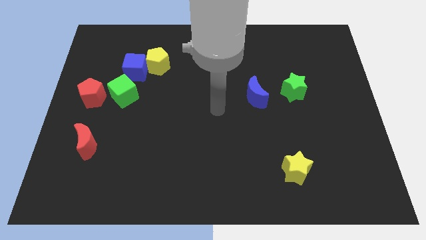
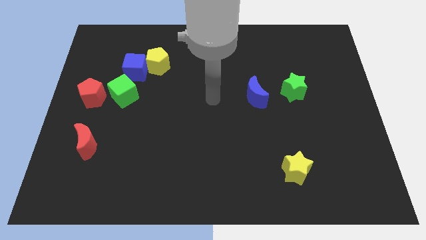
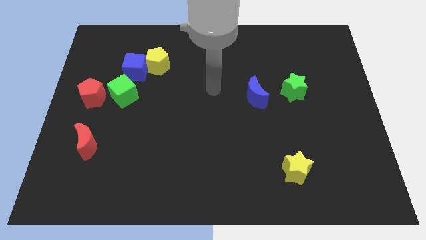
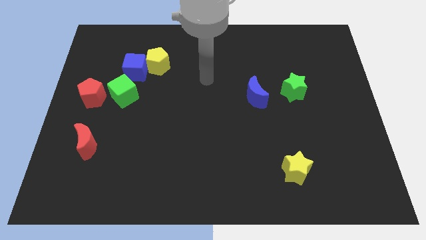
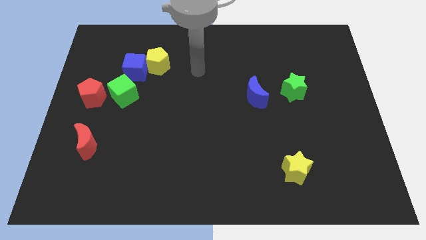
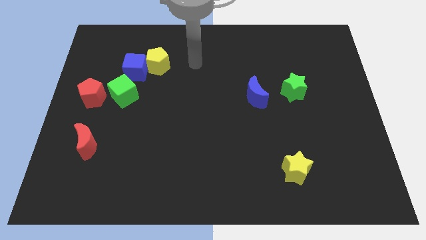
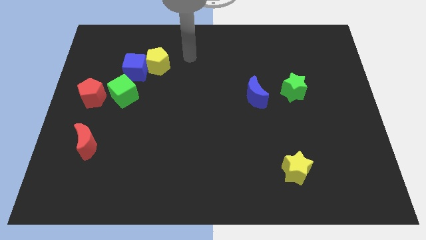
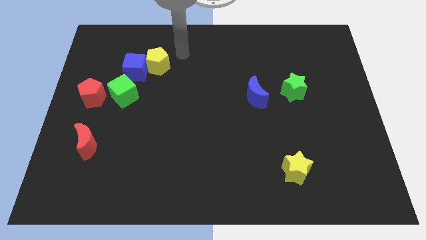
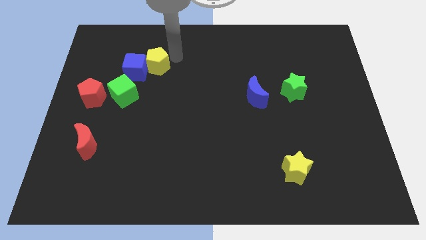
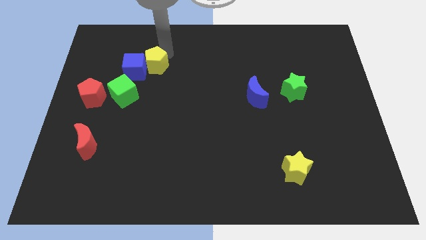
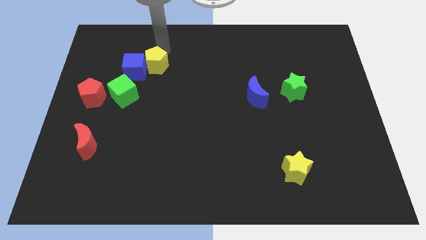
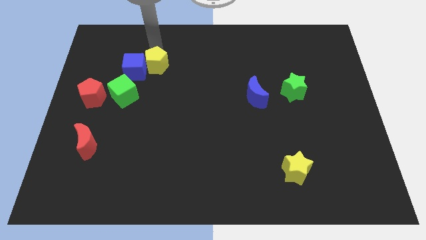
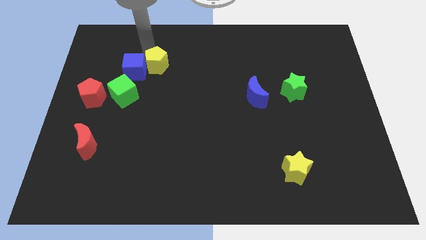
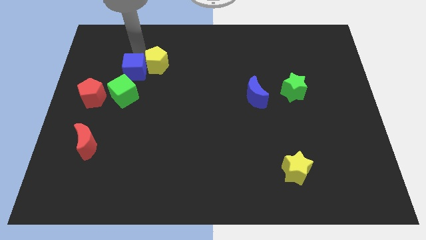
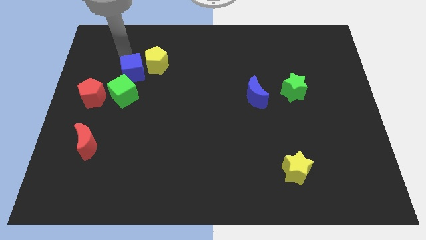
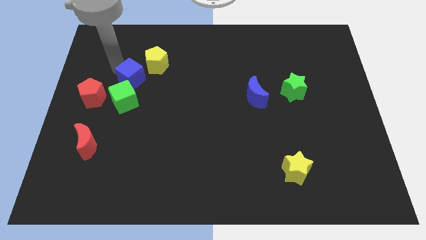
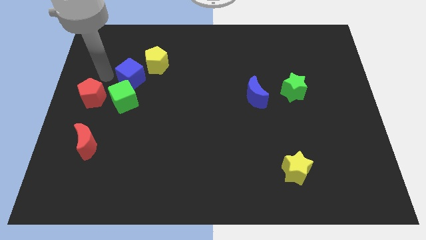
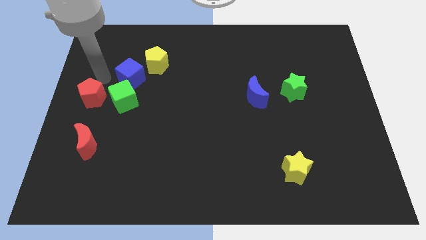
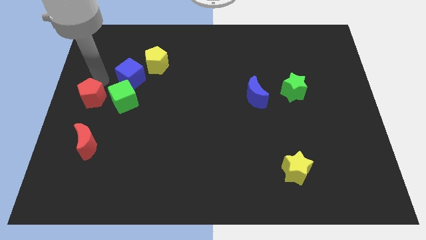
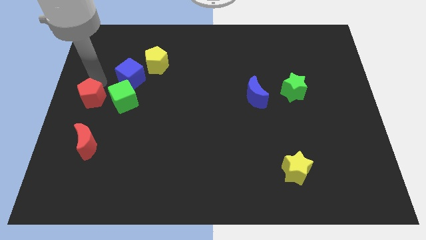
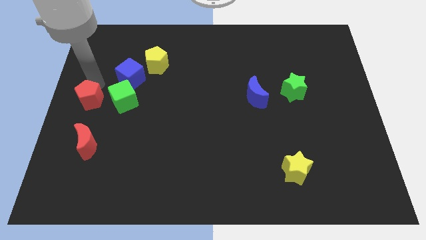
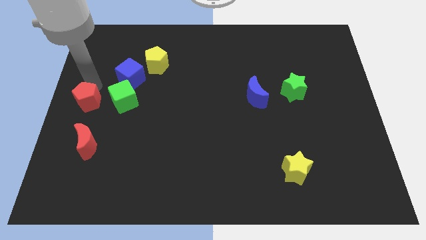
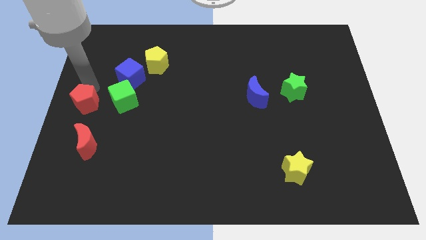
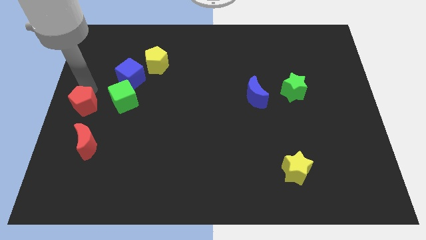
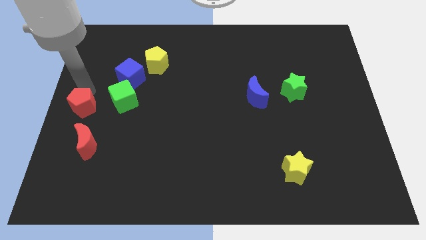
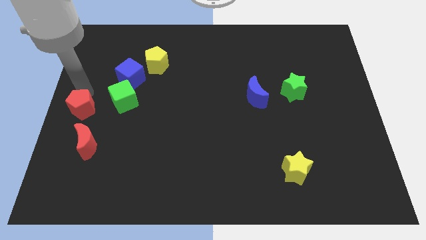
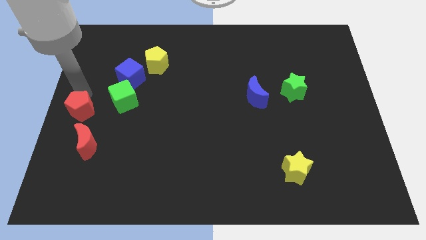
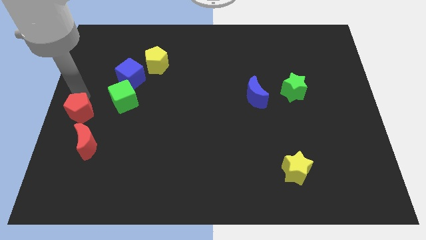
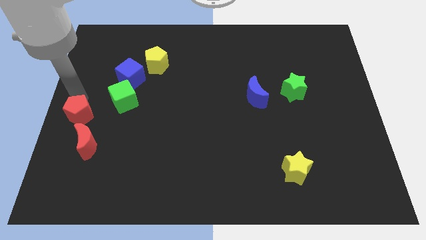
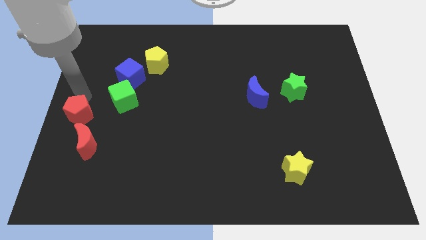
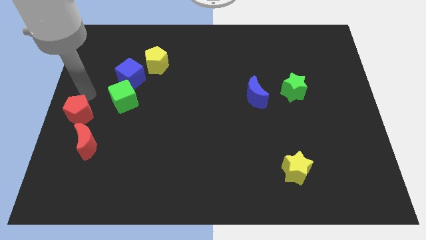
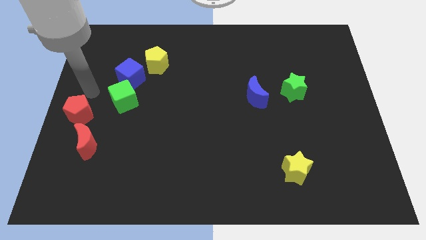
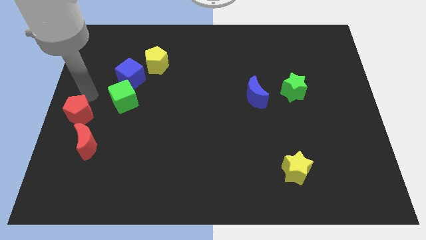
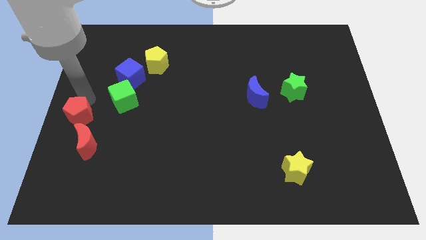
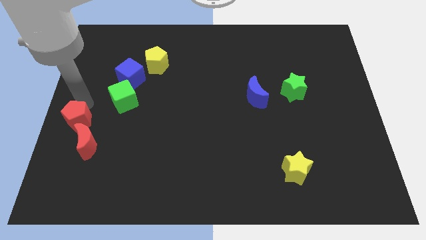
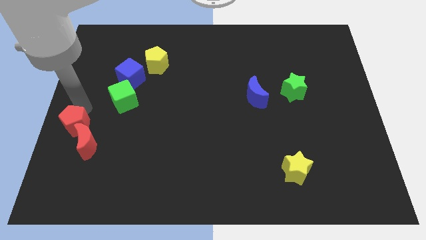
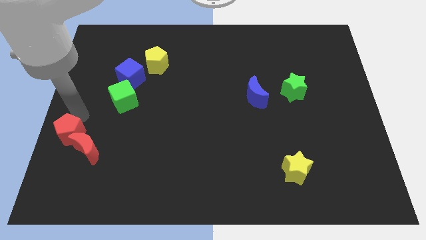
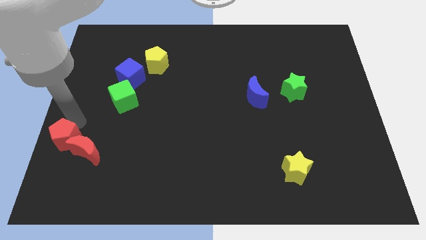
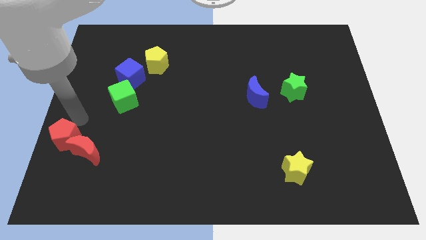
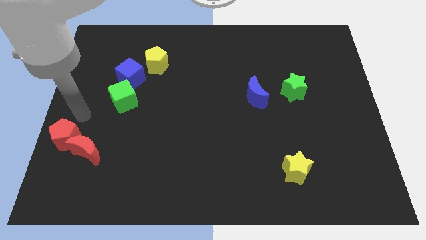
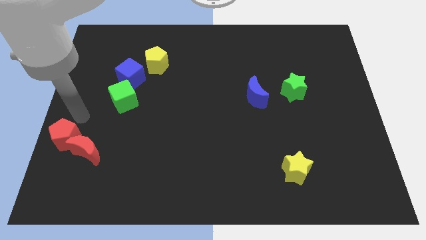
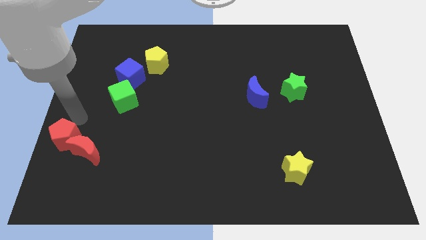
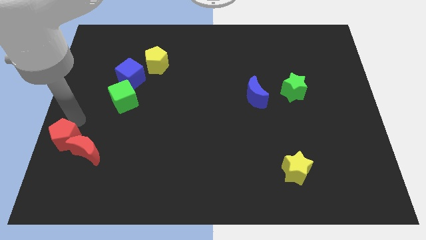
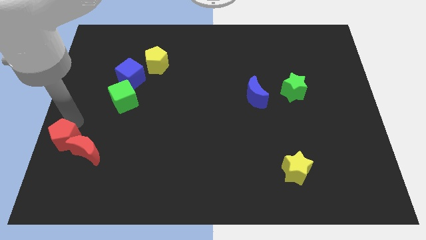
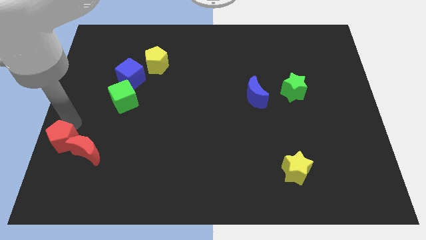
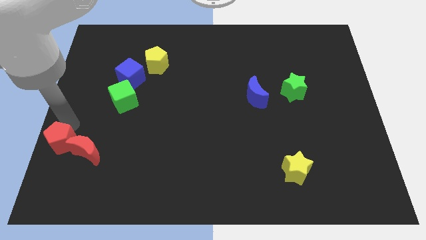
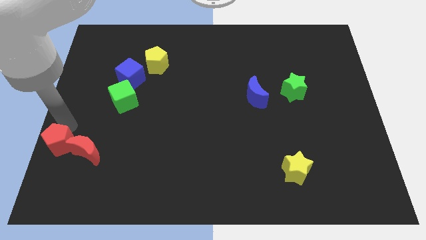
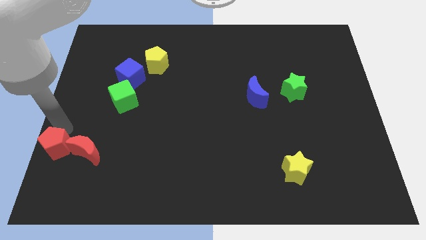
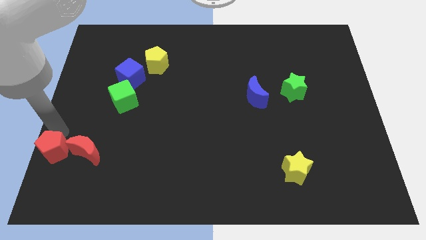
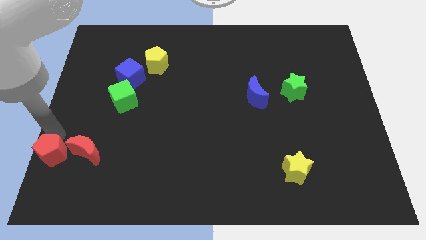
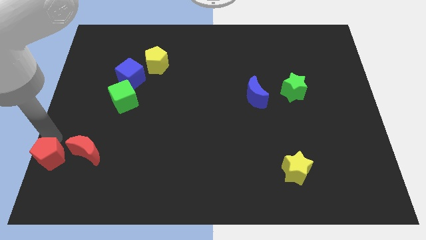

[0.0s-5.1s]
push the red pentagon to the bottom left of the board

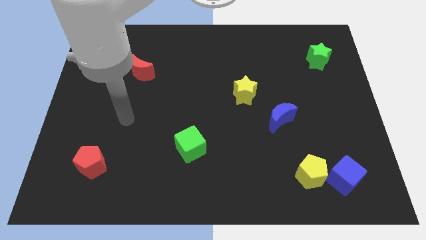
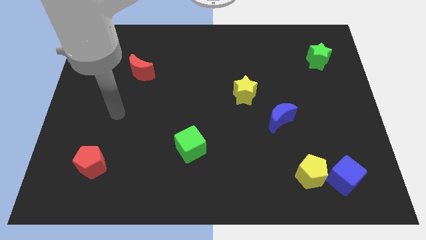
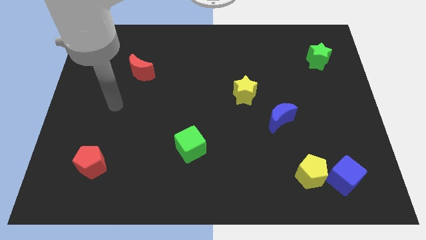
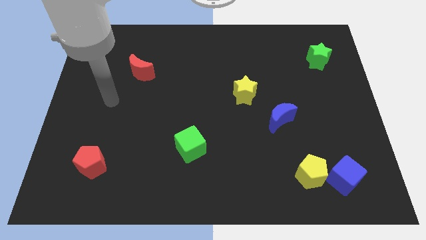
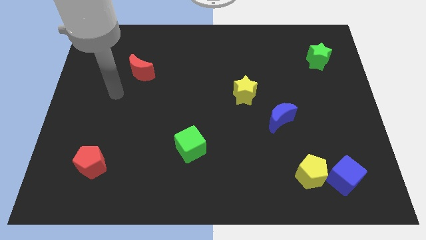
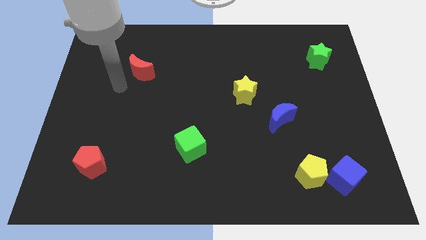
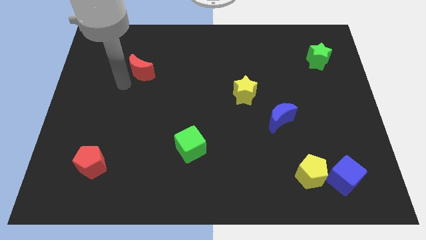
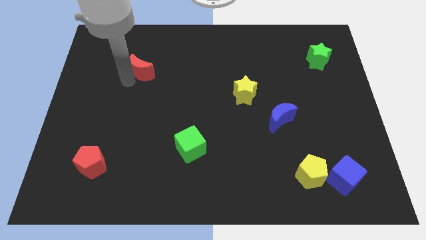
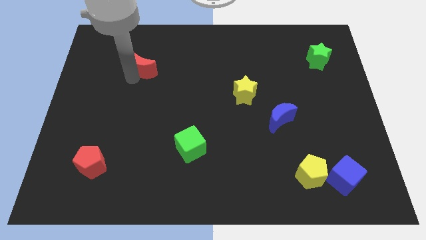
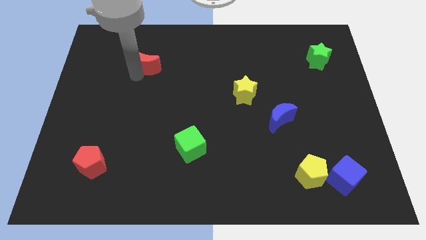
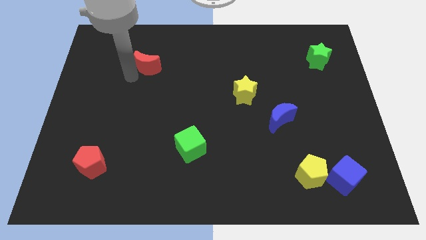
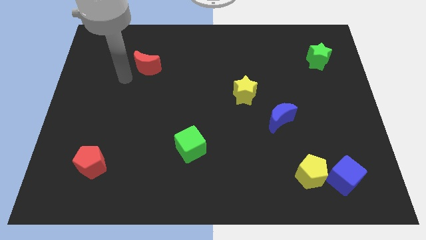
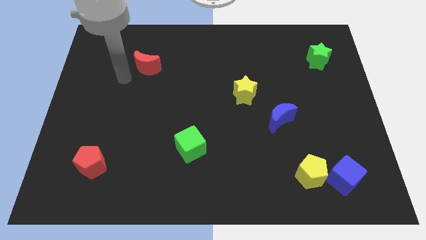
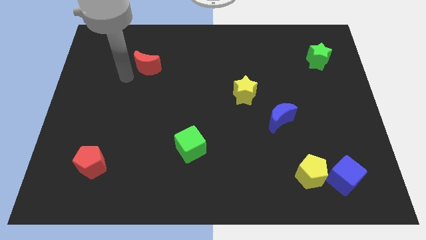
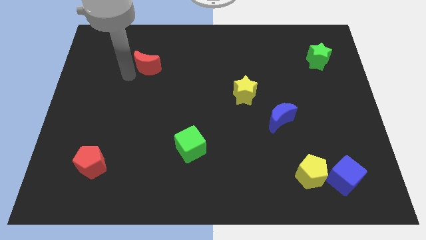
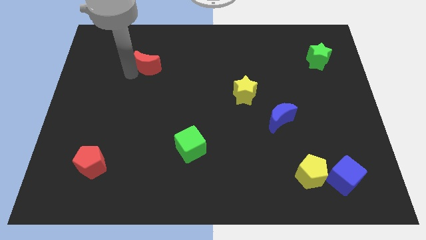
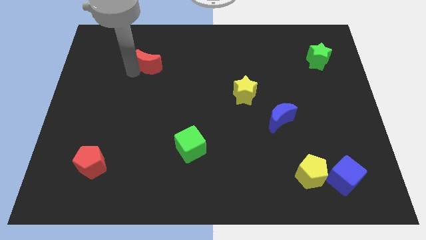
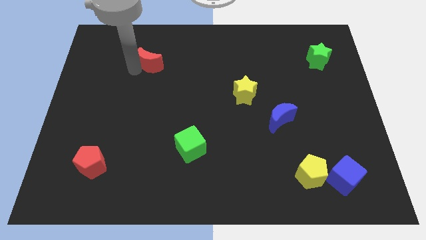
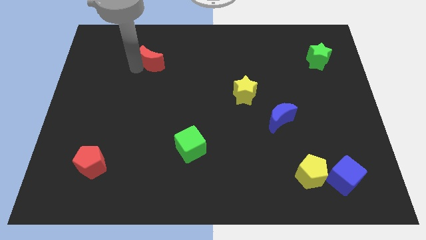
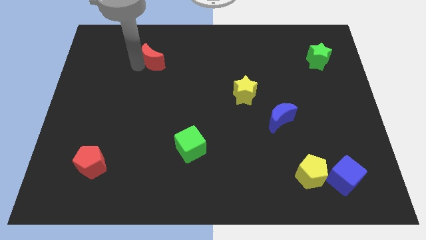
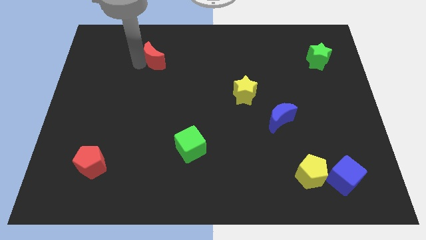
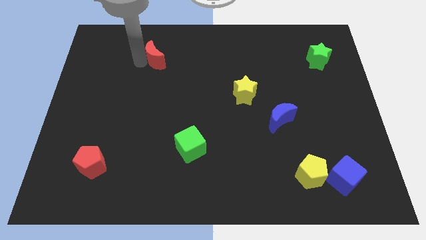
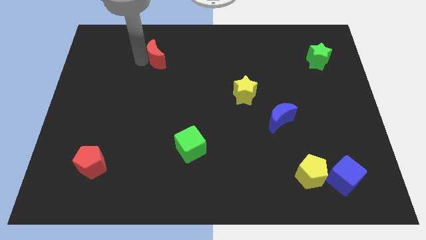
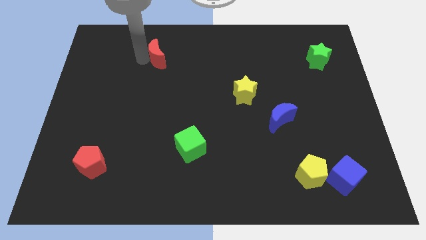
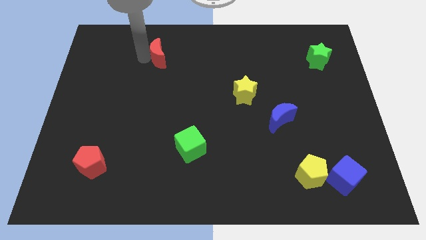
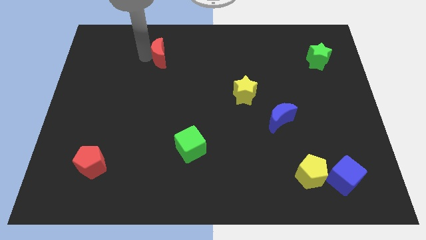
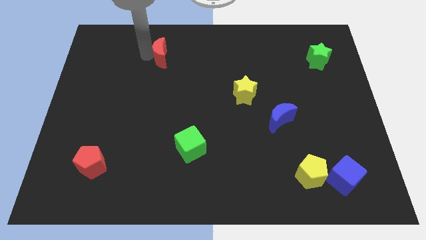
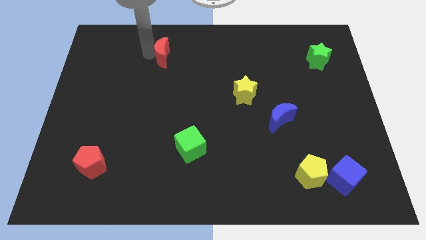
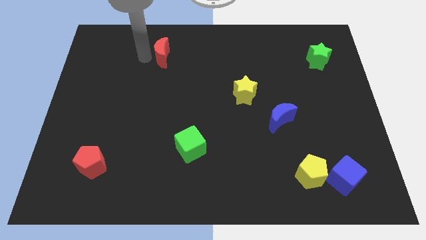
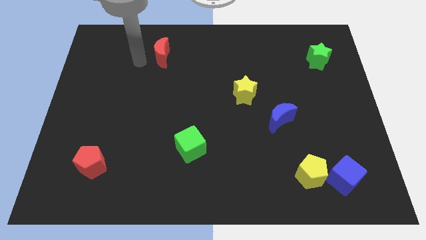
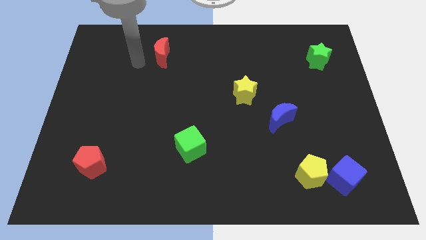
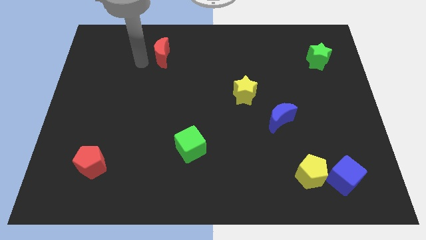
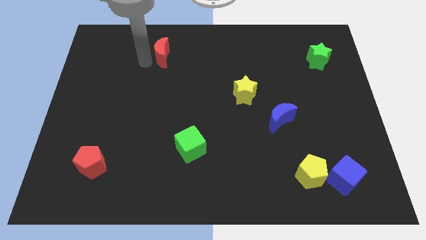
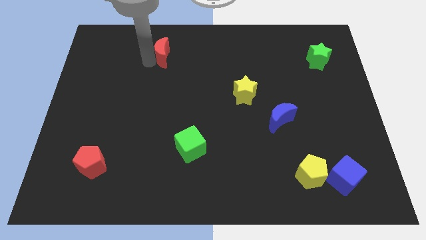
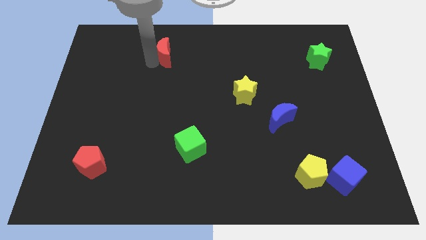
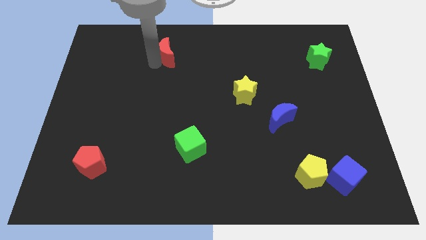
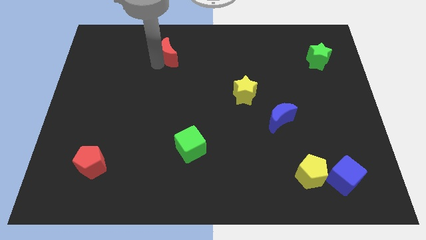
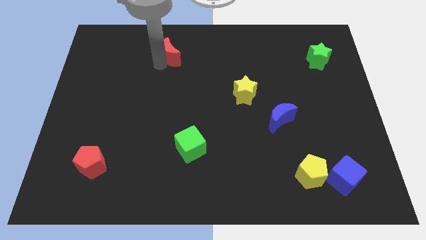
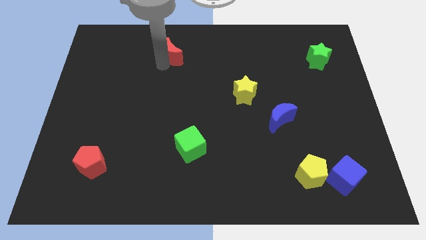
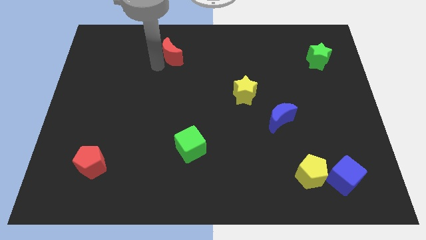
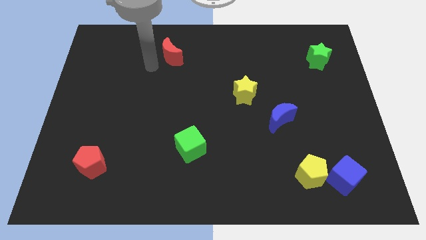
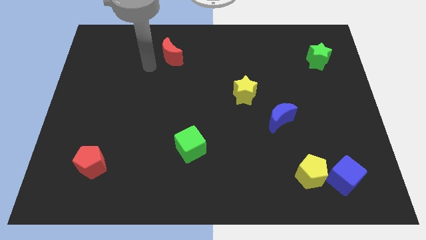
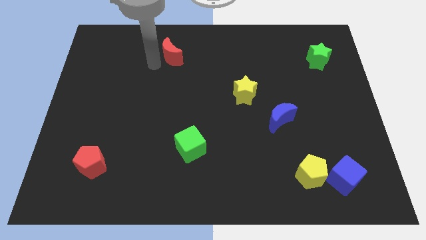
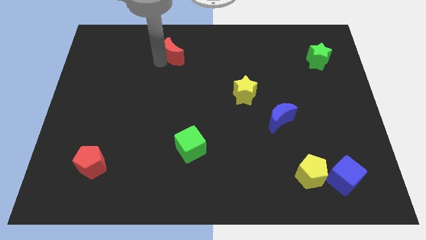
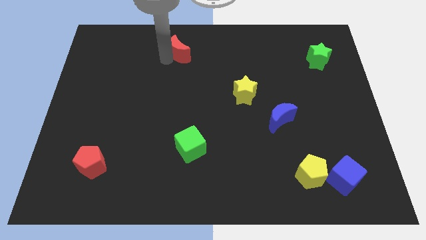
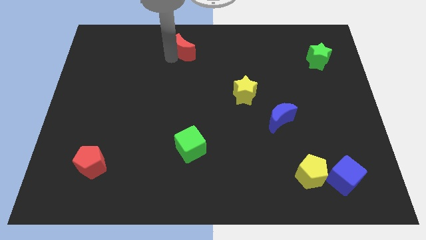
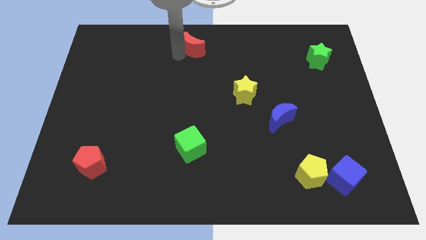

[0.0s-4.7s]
move the red moon to the top
